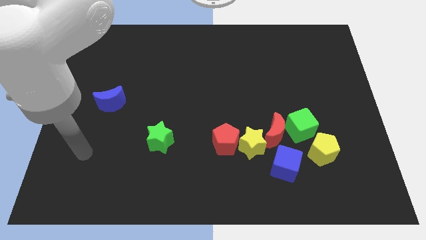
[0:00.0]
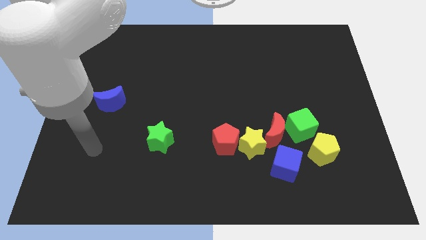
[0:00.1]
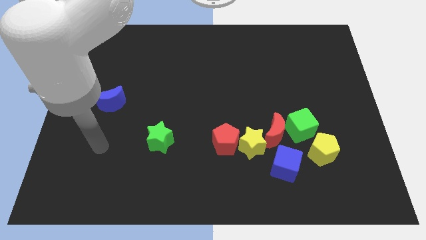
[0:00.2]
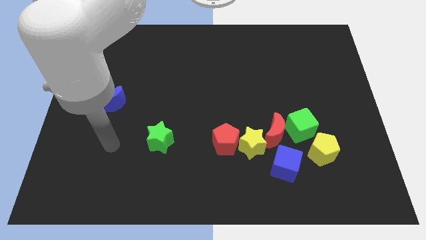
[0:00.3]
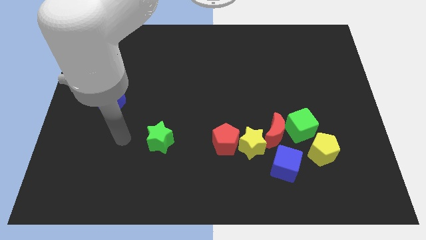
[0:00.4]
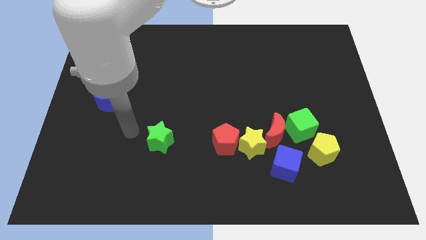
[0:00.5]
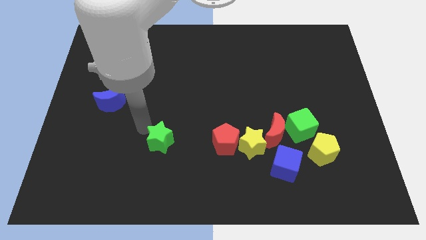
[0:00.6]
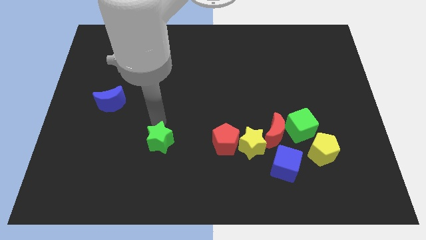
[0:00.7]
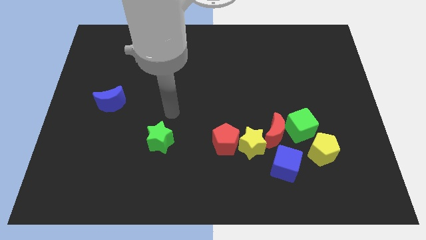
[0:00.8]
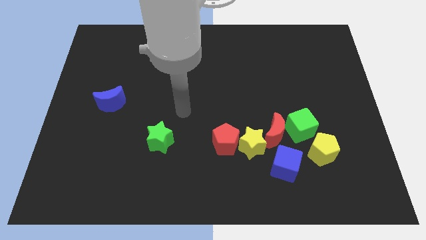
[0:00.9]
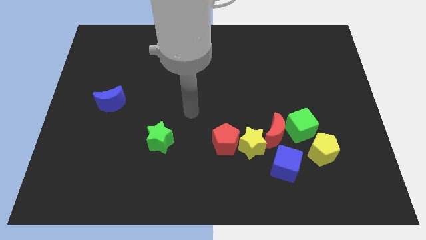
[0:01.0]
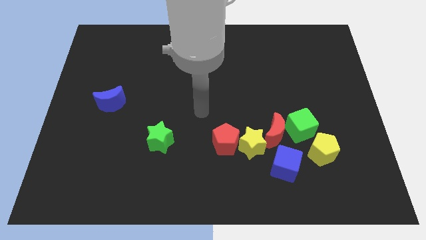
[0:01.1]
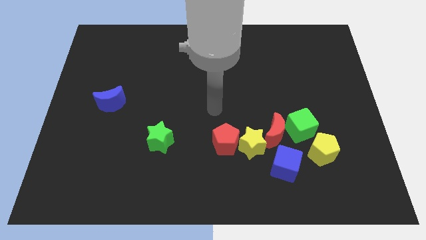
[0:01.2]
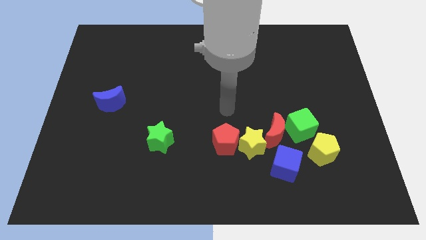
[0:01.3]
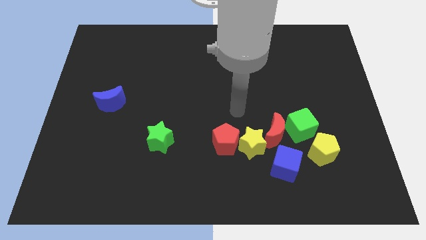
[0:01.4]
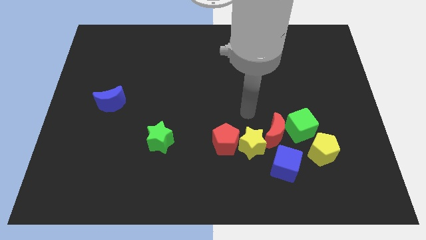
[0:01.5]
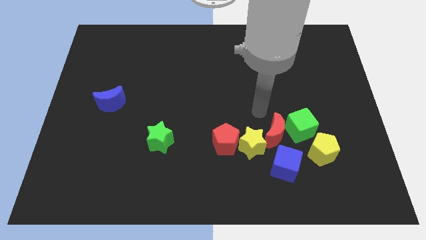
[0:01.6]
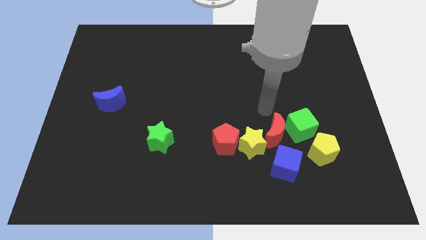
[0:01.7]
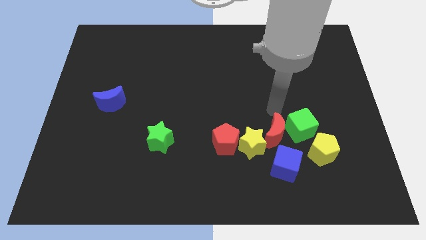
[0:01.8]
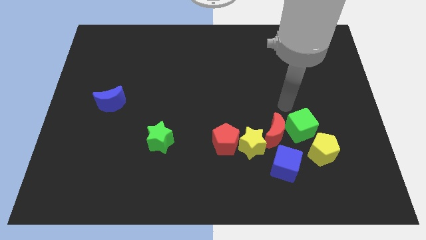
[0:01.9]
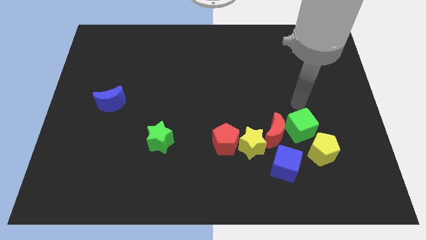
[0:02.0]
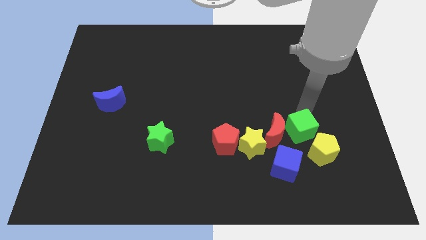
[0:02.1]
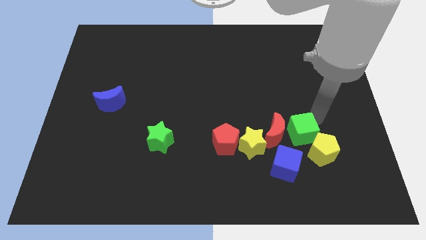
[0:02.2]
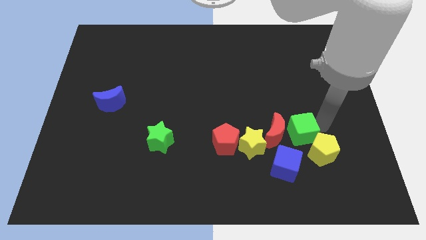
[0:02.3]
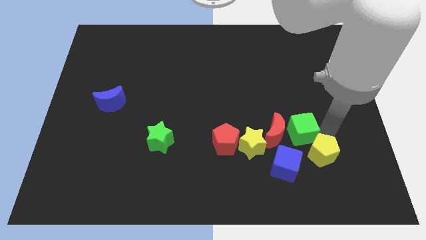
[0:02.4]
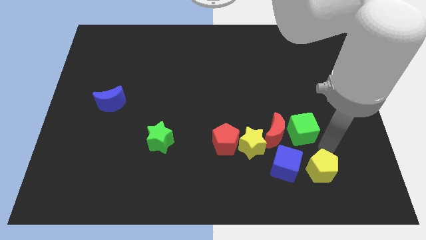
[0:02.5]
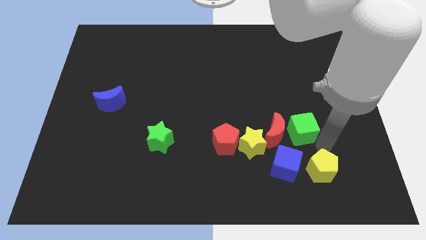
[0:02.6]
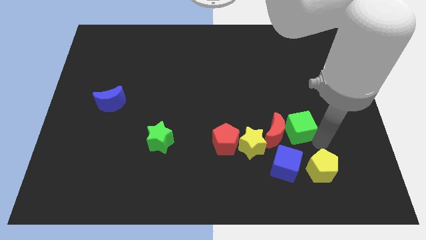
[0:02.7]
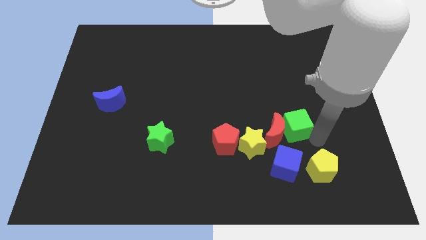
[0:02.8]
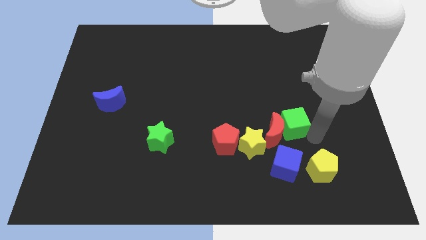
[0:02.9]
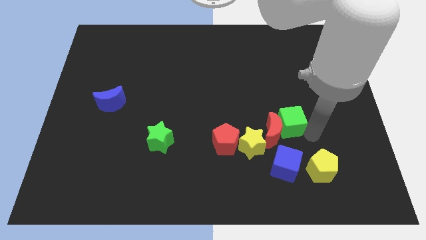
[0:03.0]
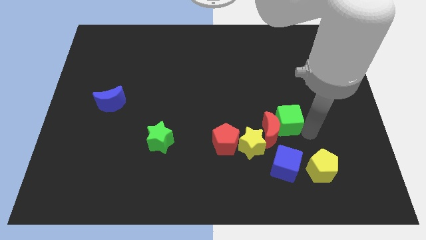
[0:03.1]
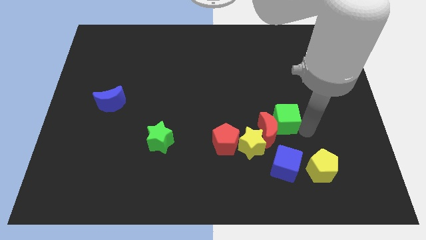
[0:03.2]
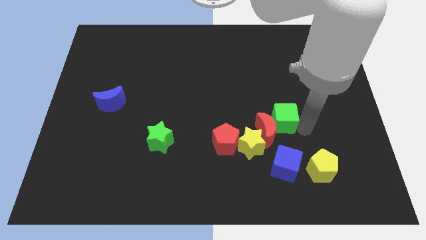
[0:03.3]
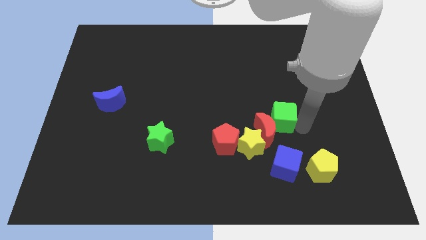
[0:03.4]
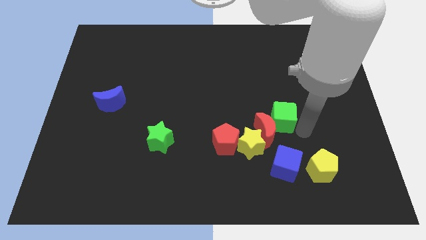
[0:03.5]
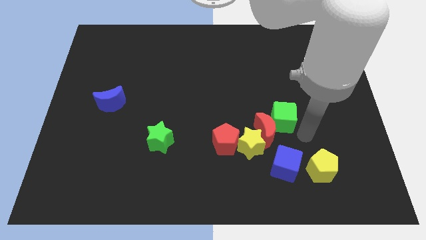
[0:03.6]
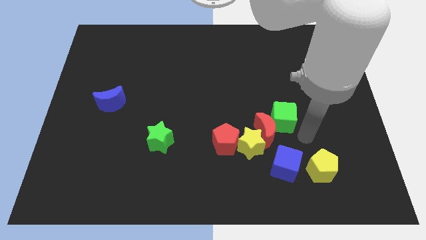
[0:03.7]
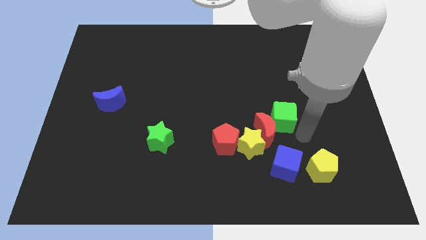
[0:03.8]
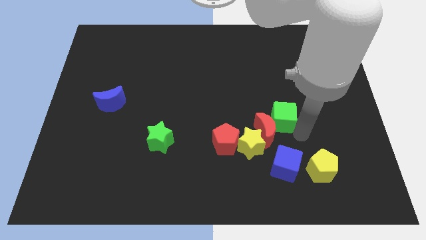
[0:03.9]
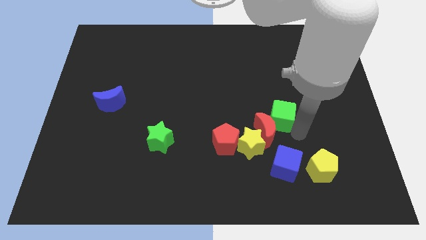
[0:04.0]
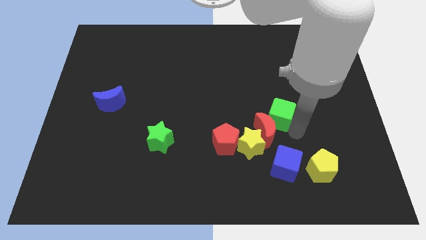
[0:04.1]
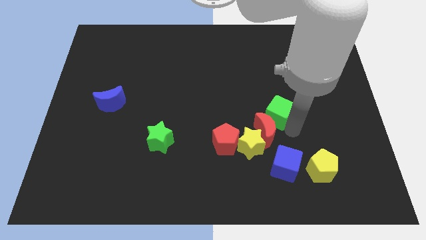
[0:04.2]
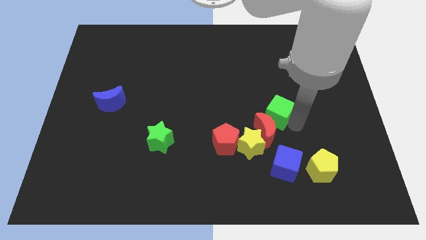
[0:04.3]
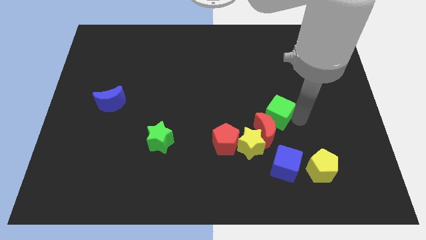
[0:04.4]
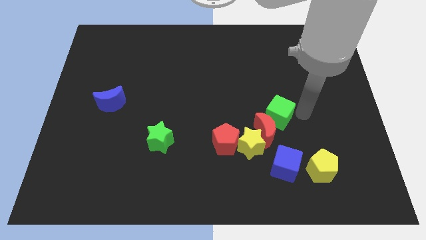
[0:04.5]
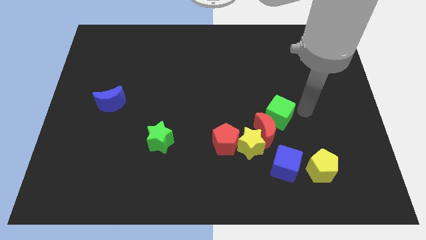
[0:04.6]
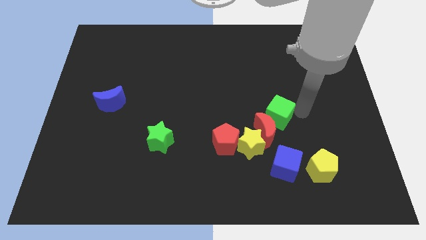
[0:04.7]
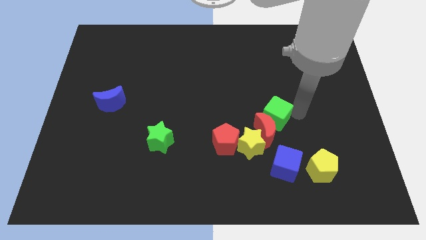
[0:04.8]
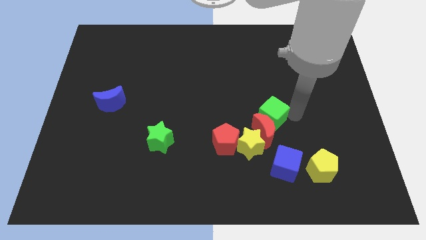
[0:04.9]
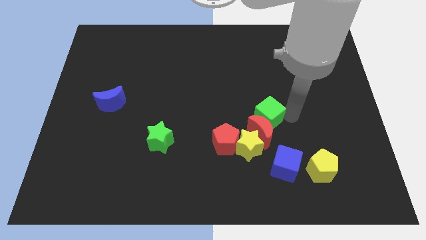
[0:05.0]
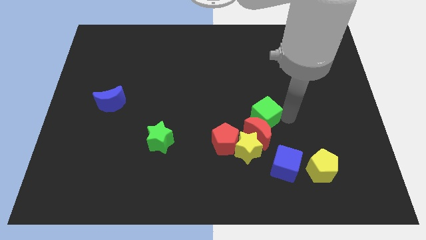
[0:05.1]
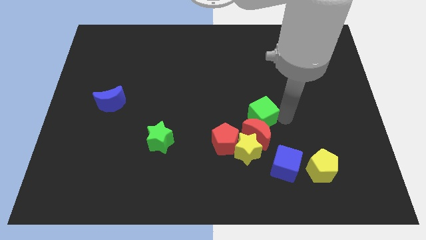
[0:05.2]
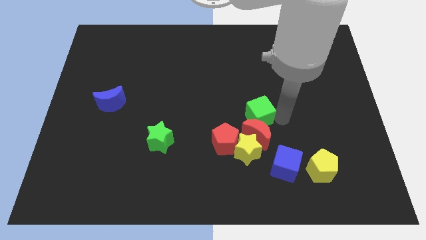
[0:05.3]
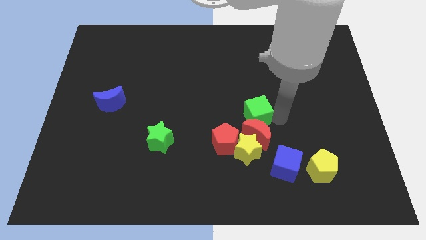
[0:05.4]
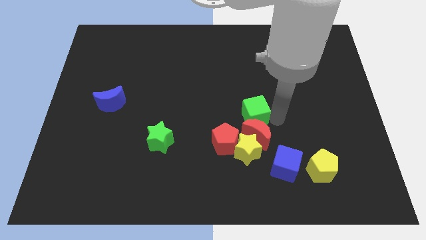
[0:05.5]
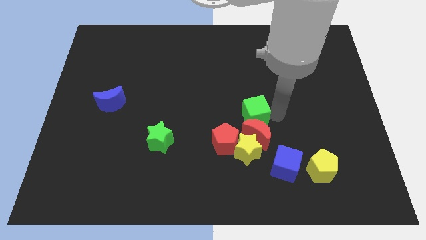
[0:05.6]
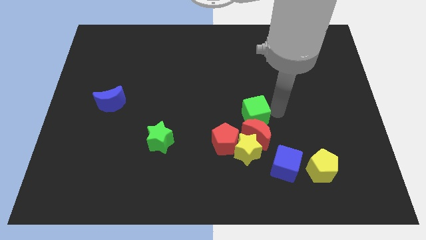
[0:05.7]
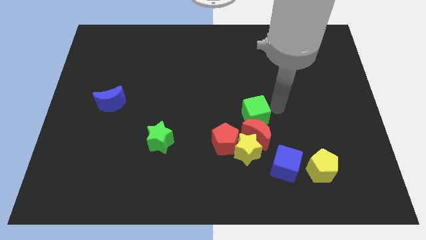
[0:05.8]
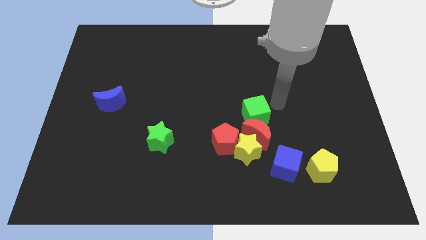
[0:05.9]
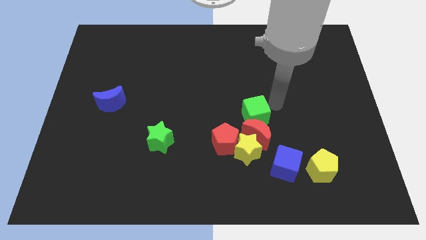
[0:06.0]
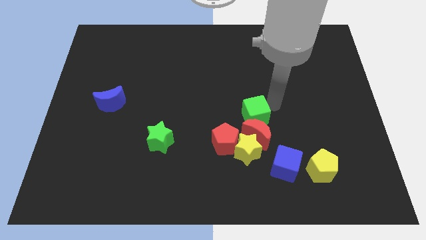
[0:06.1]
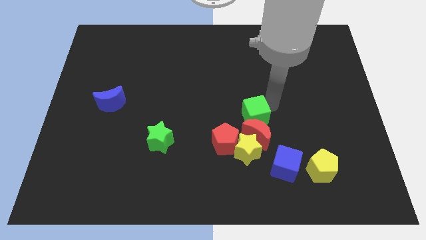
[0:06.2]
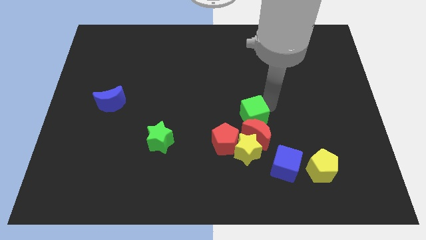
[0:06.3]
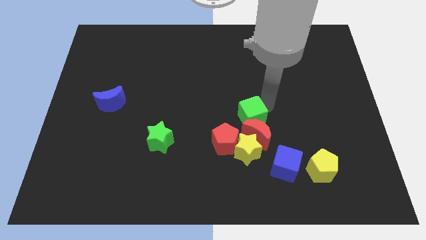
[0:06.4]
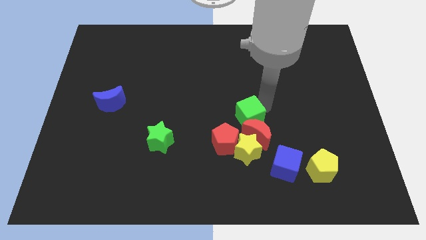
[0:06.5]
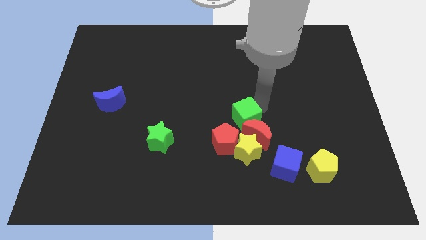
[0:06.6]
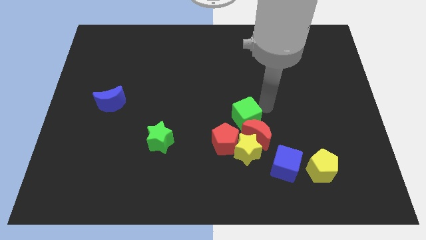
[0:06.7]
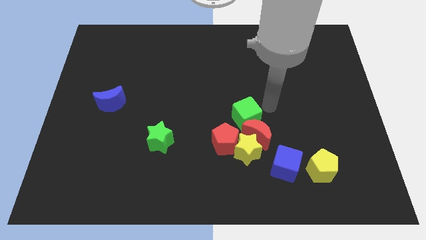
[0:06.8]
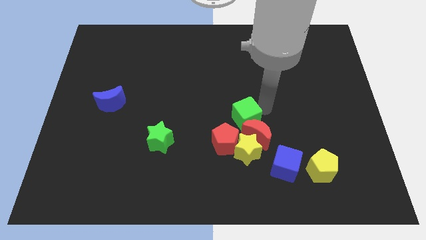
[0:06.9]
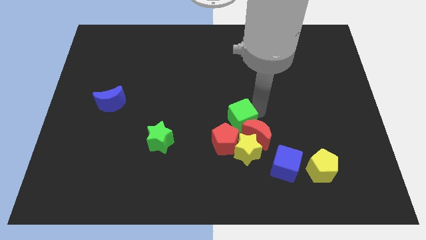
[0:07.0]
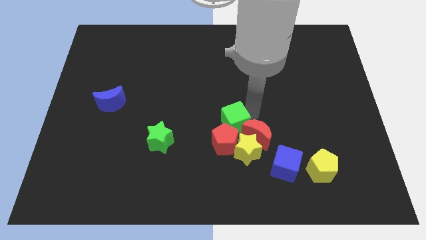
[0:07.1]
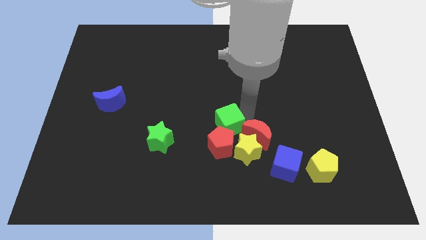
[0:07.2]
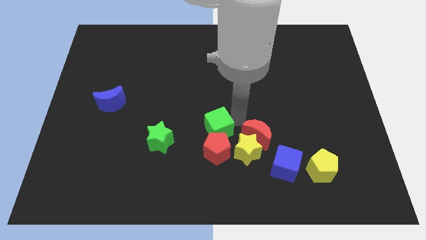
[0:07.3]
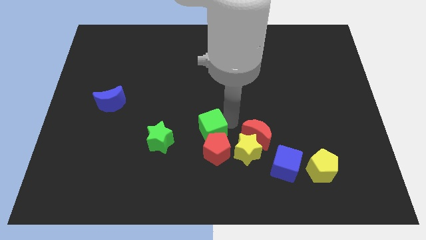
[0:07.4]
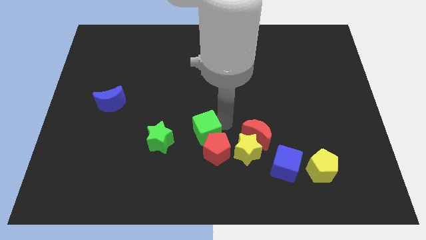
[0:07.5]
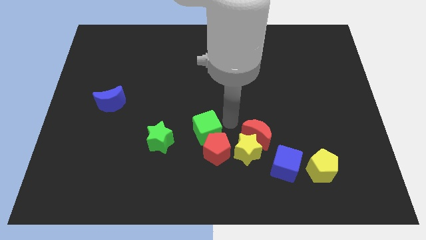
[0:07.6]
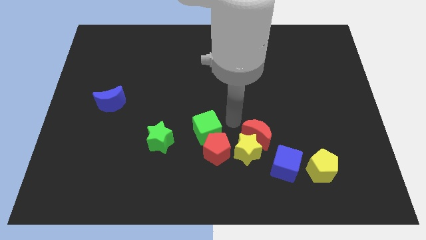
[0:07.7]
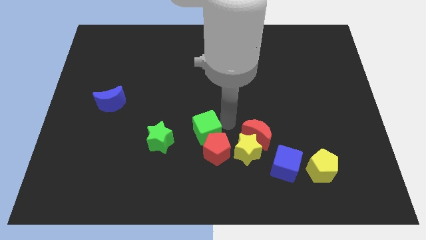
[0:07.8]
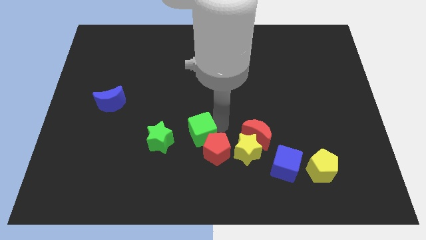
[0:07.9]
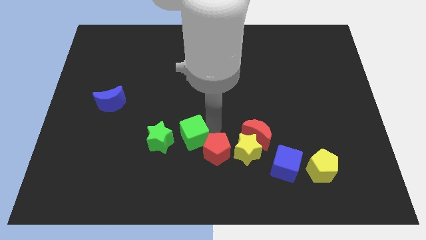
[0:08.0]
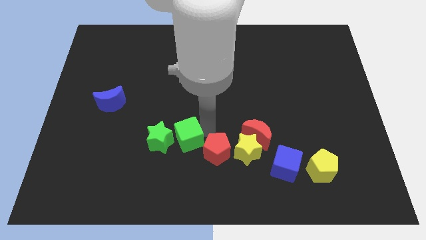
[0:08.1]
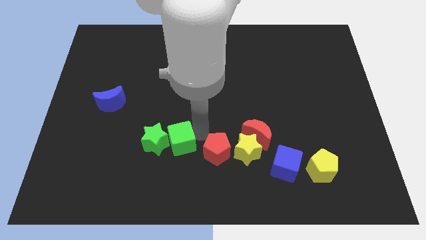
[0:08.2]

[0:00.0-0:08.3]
move the green cube to the green star
